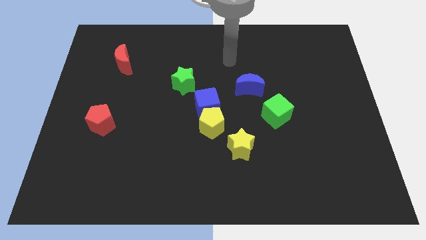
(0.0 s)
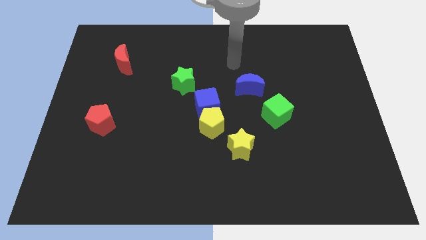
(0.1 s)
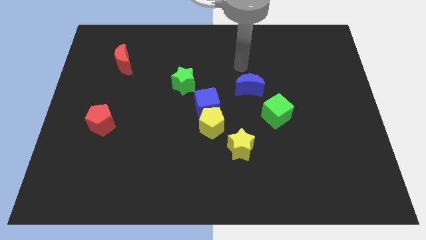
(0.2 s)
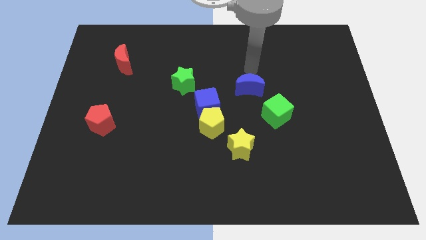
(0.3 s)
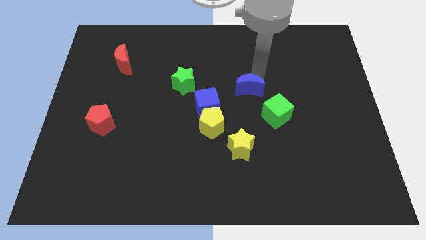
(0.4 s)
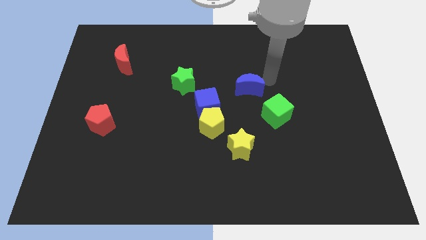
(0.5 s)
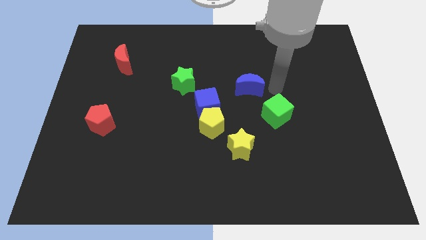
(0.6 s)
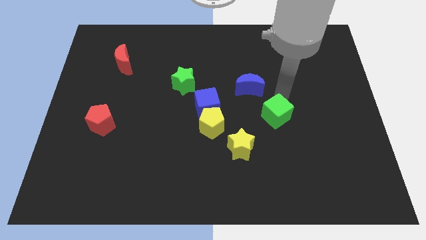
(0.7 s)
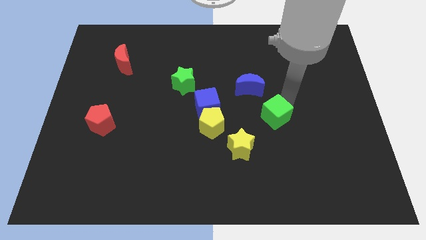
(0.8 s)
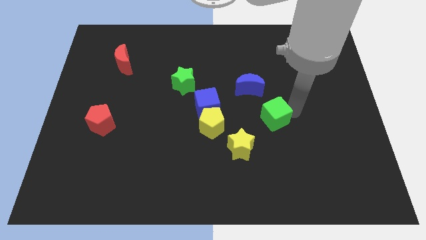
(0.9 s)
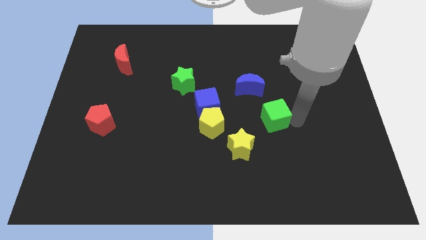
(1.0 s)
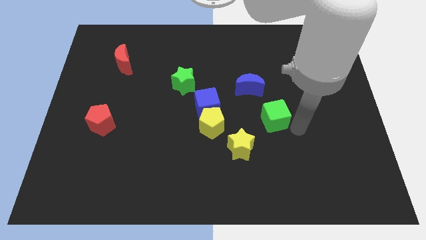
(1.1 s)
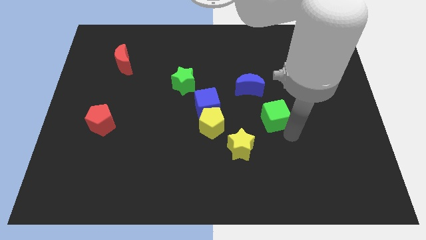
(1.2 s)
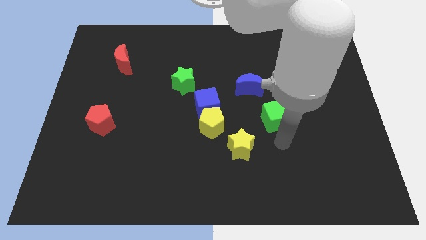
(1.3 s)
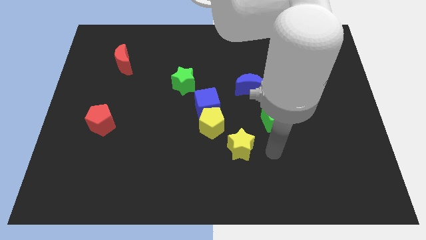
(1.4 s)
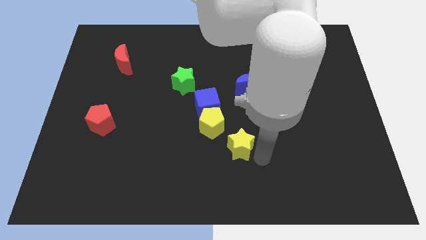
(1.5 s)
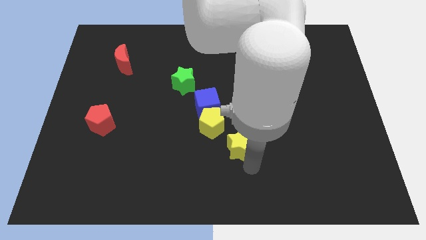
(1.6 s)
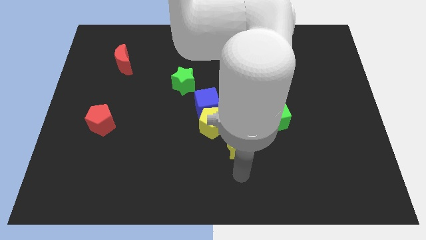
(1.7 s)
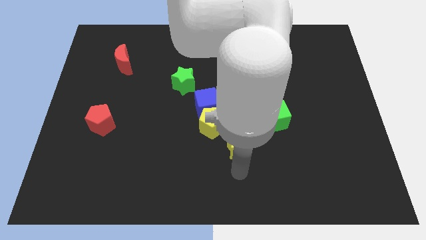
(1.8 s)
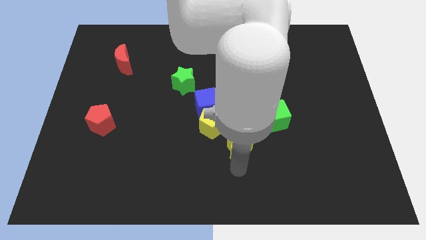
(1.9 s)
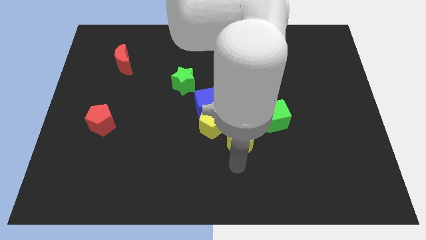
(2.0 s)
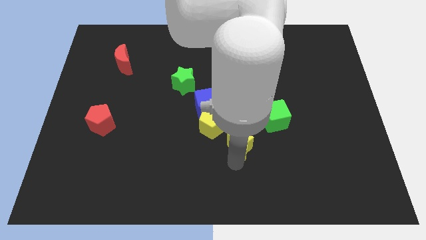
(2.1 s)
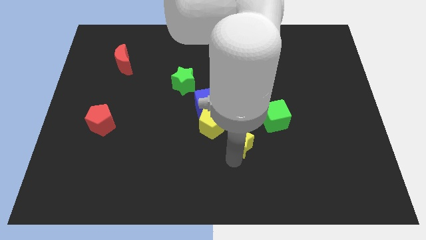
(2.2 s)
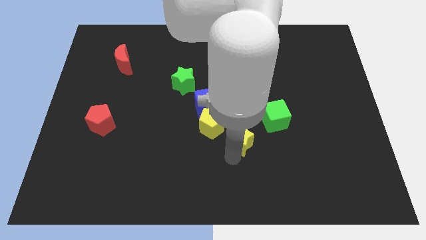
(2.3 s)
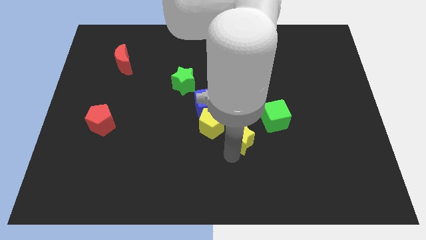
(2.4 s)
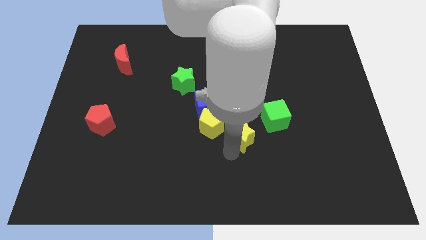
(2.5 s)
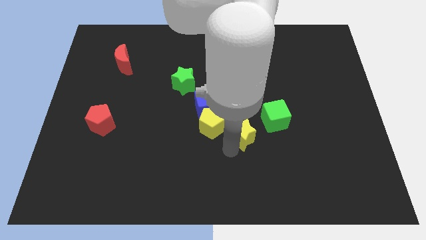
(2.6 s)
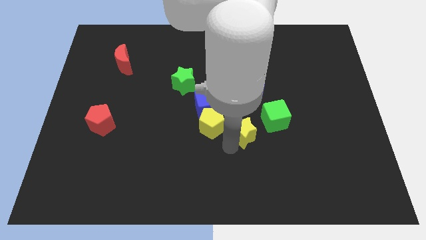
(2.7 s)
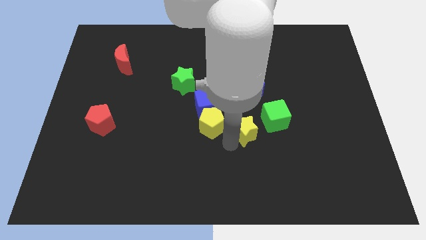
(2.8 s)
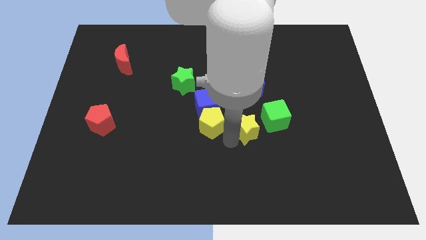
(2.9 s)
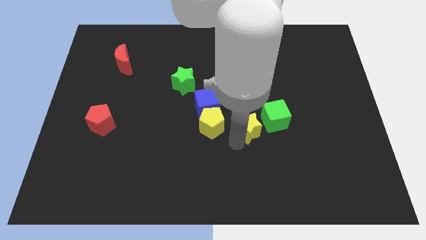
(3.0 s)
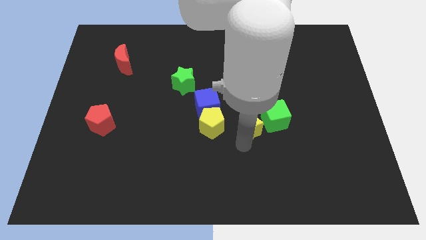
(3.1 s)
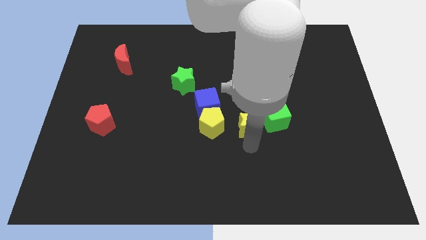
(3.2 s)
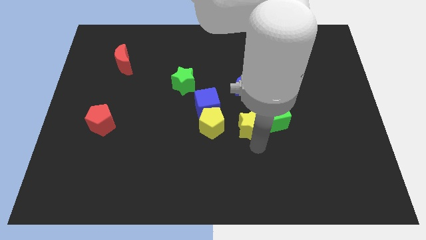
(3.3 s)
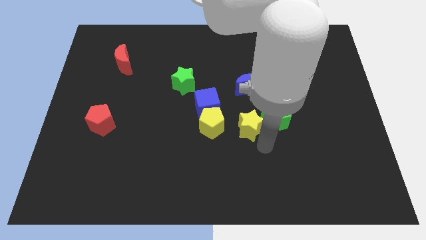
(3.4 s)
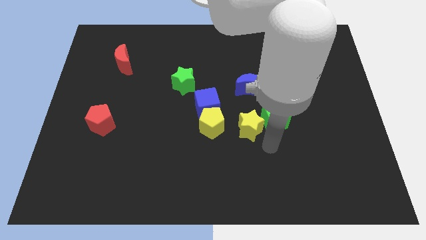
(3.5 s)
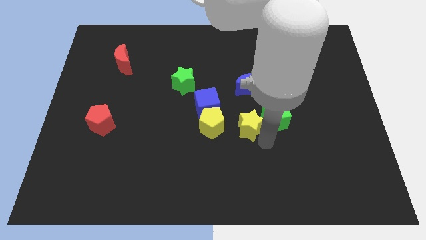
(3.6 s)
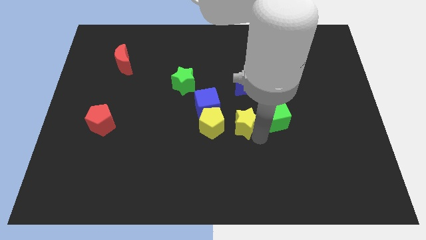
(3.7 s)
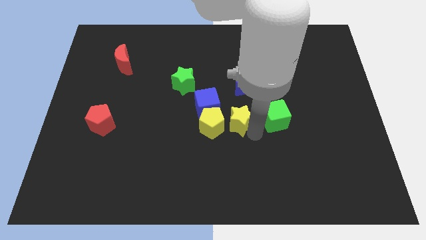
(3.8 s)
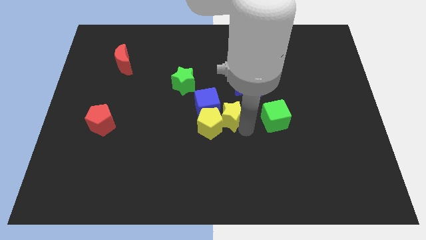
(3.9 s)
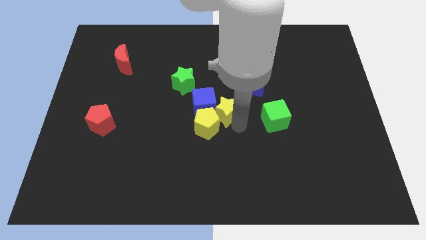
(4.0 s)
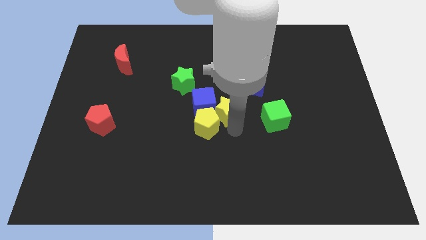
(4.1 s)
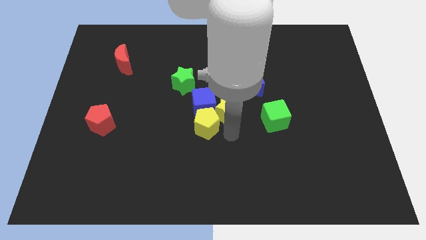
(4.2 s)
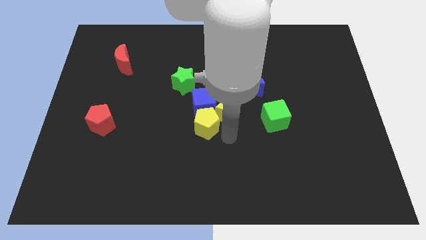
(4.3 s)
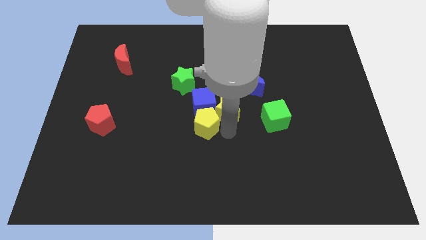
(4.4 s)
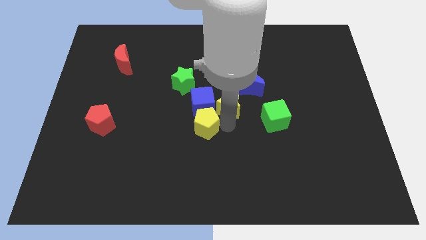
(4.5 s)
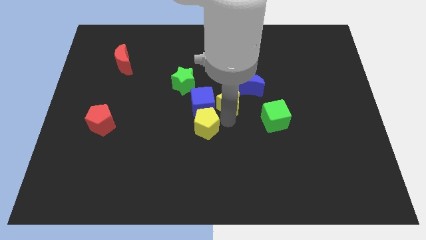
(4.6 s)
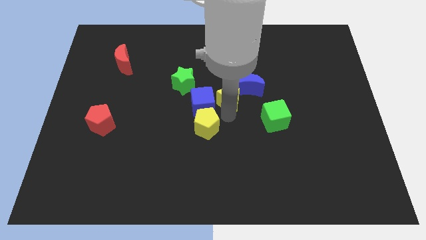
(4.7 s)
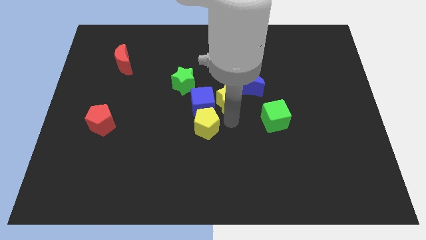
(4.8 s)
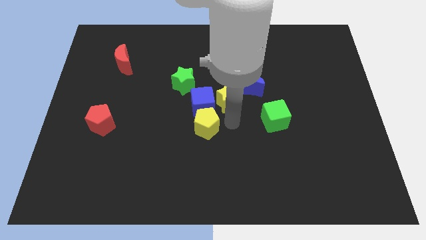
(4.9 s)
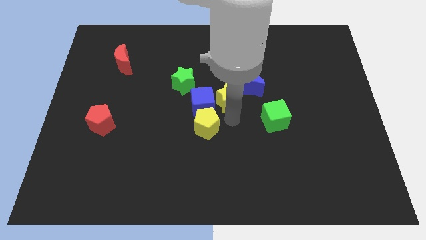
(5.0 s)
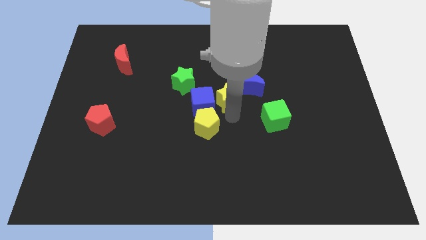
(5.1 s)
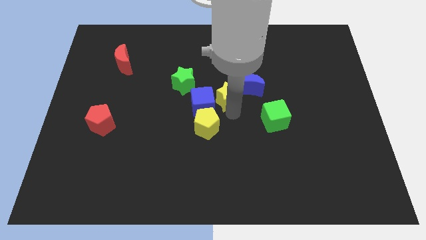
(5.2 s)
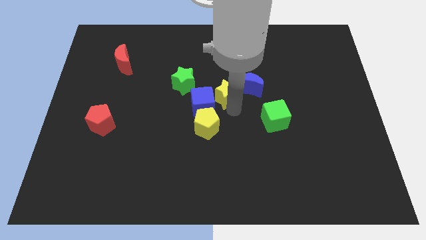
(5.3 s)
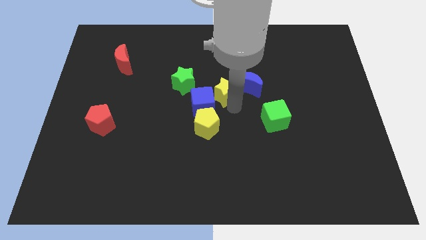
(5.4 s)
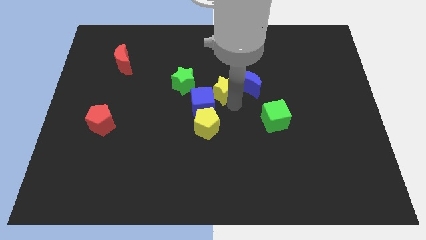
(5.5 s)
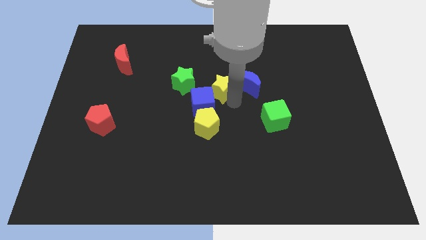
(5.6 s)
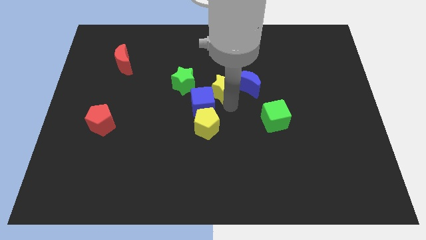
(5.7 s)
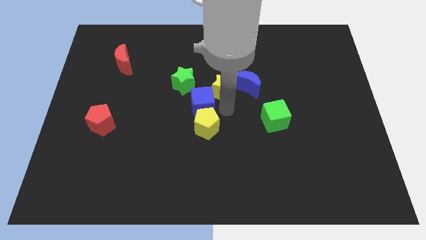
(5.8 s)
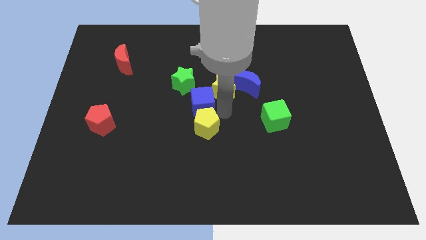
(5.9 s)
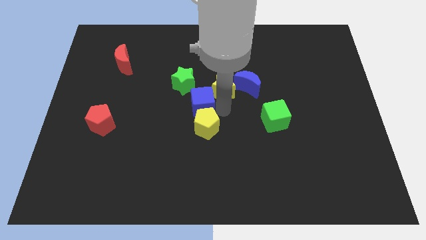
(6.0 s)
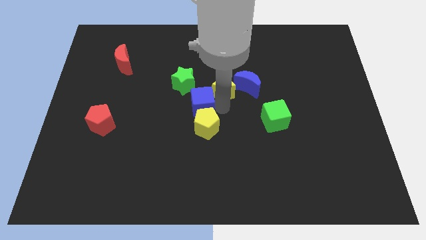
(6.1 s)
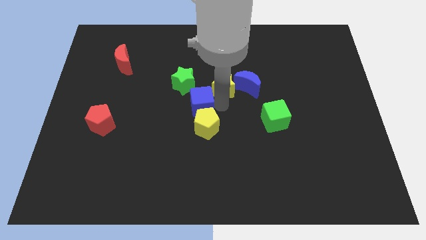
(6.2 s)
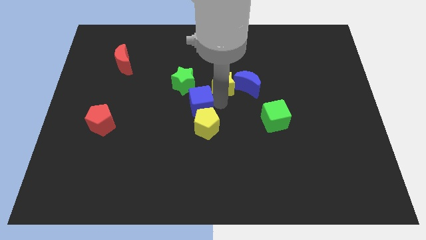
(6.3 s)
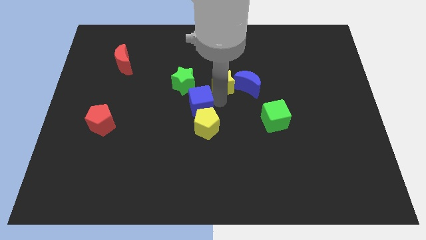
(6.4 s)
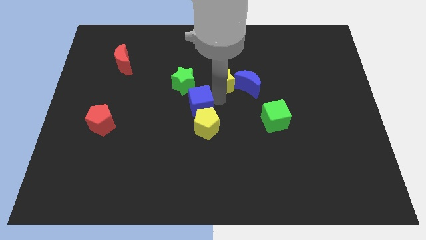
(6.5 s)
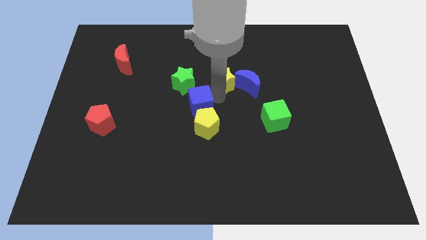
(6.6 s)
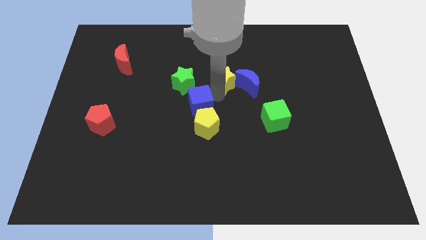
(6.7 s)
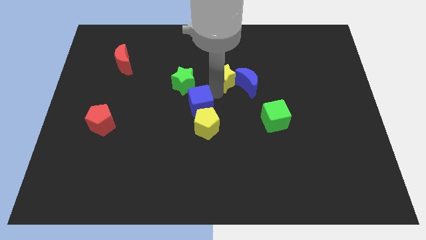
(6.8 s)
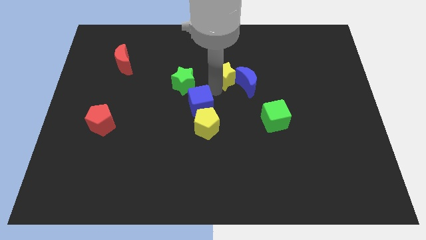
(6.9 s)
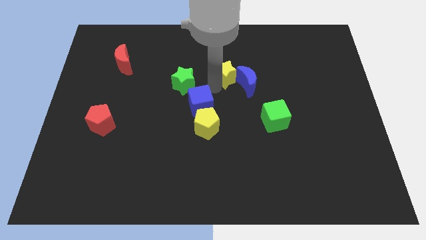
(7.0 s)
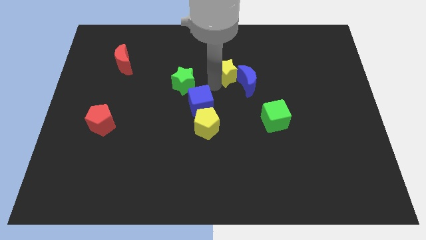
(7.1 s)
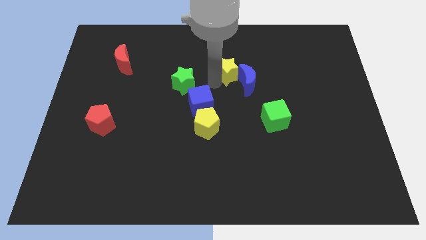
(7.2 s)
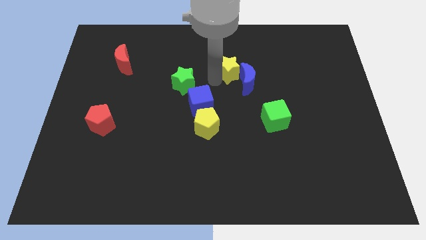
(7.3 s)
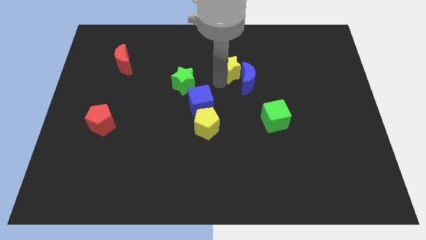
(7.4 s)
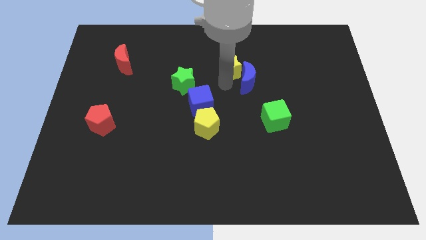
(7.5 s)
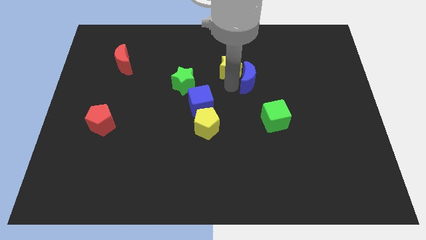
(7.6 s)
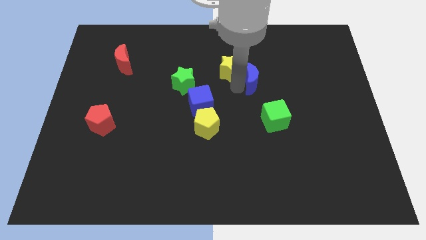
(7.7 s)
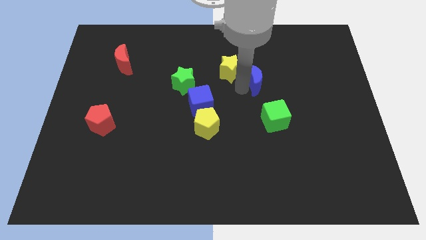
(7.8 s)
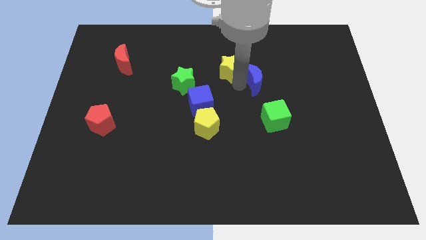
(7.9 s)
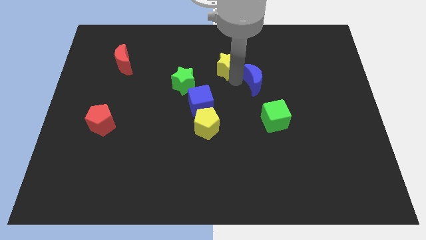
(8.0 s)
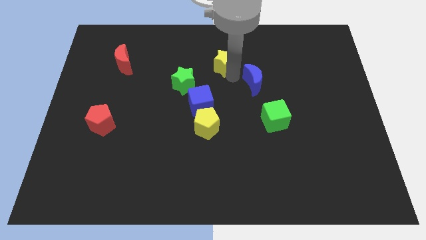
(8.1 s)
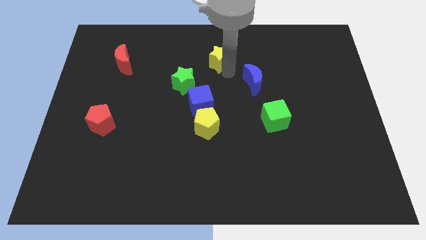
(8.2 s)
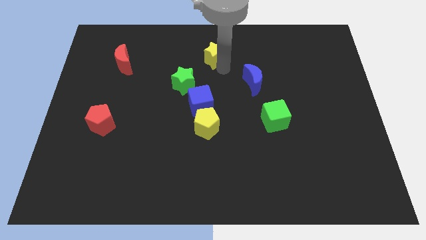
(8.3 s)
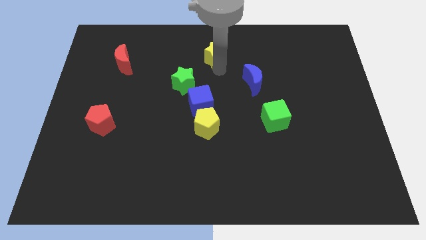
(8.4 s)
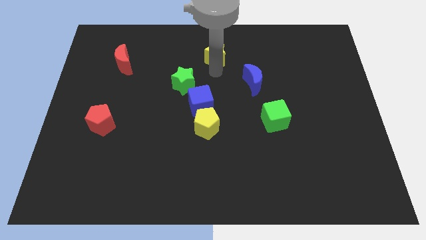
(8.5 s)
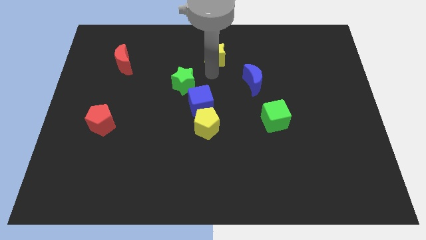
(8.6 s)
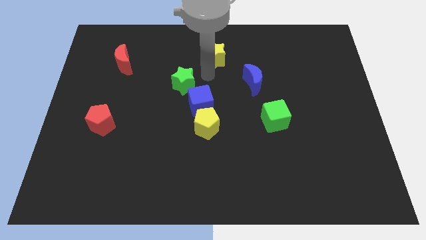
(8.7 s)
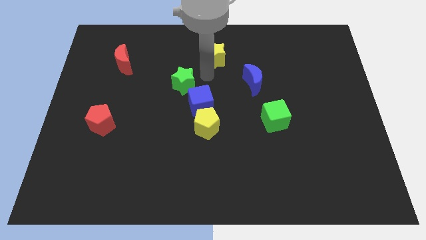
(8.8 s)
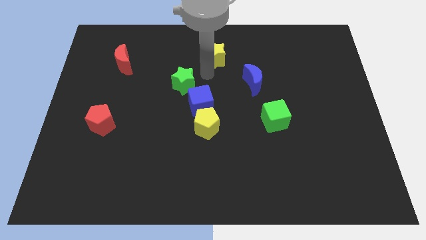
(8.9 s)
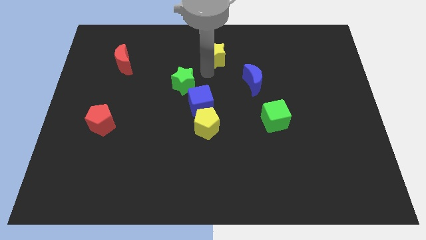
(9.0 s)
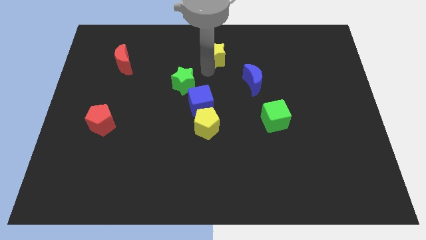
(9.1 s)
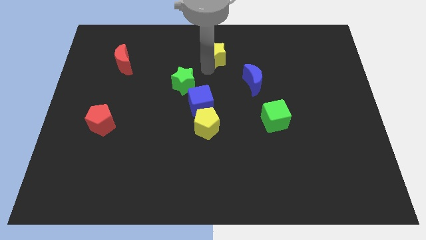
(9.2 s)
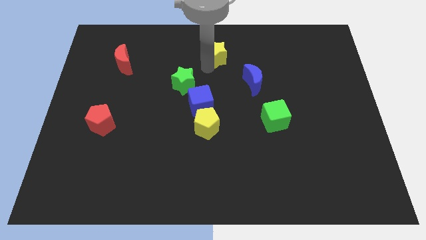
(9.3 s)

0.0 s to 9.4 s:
move the yellow star to the towards your base
